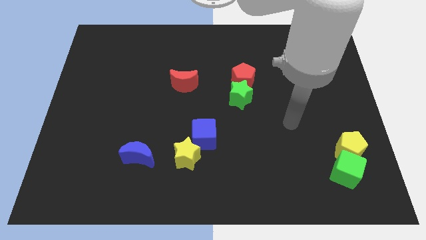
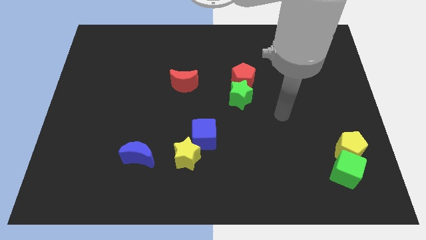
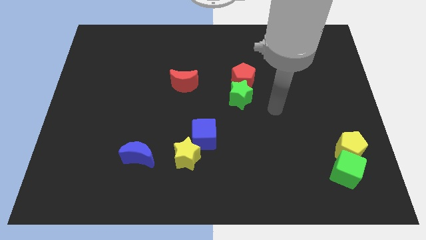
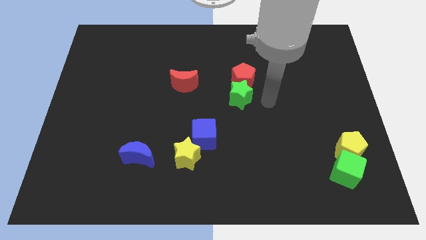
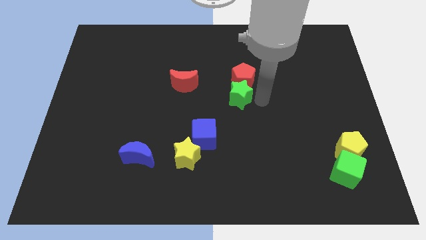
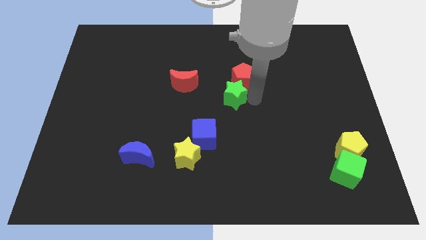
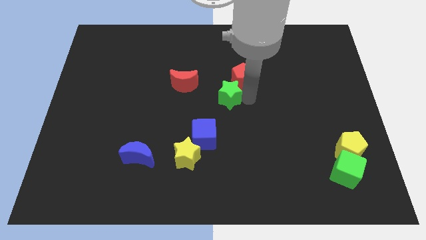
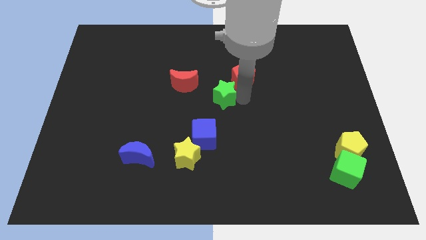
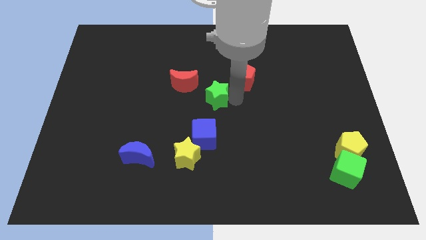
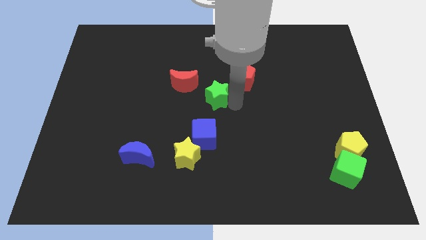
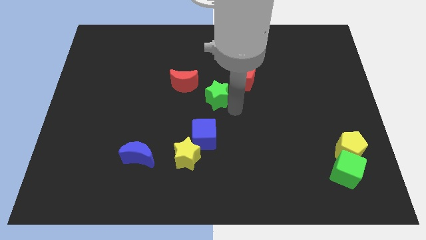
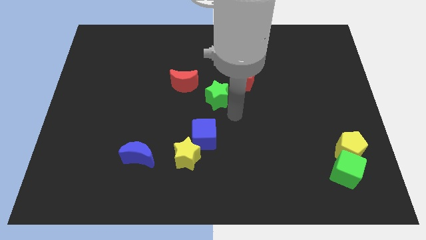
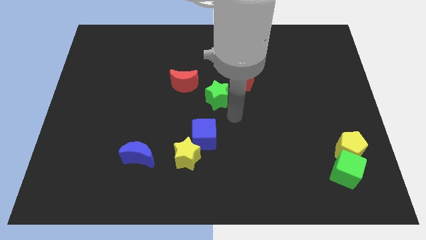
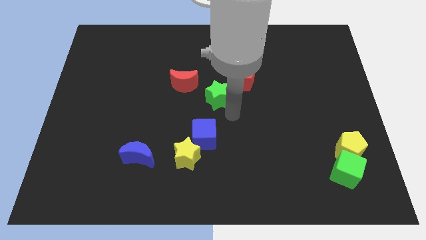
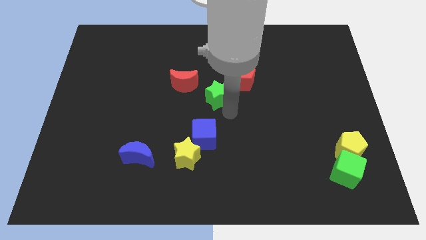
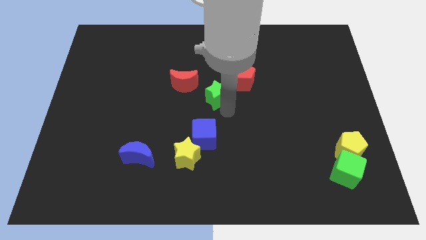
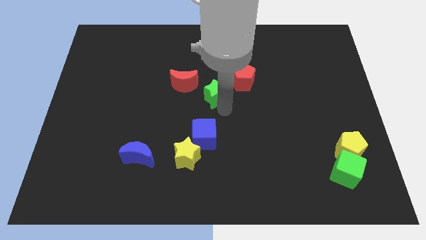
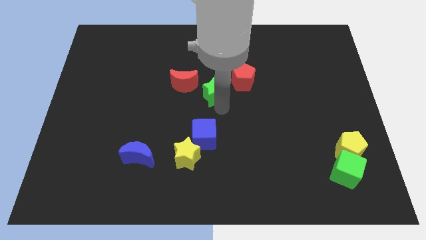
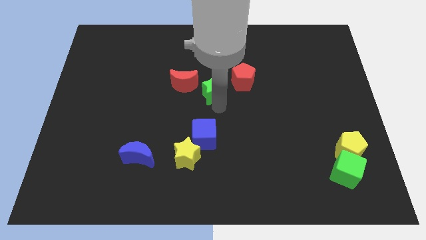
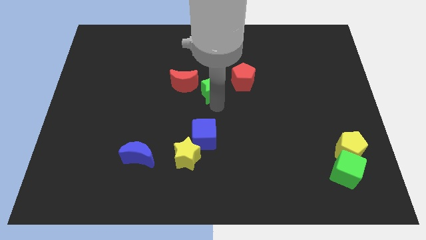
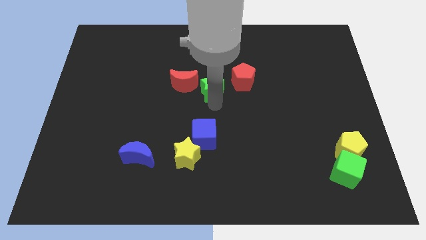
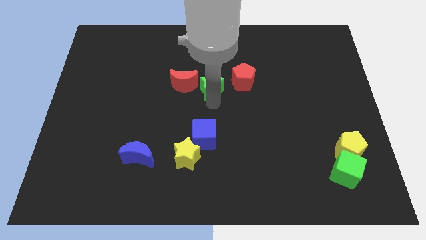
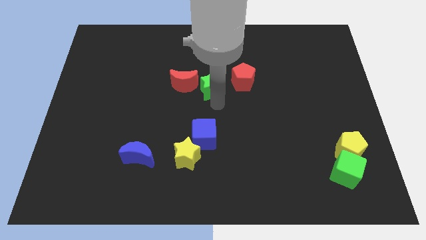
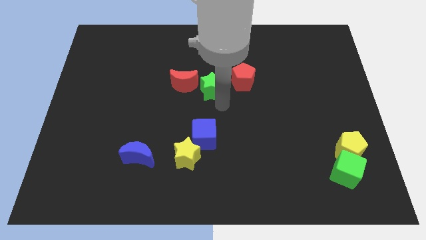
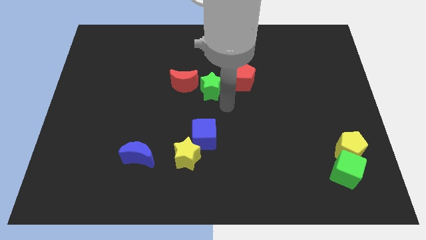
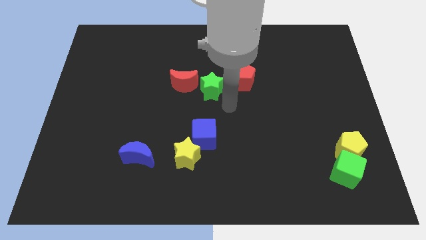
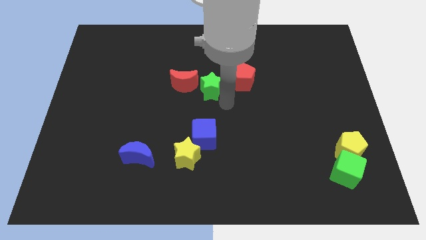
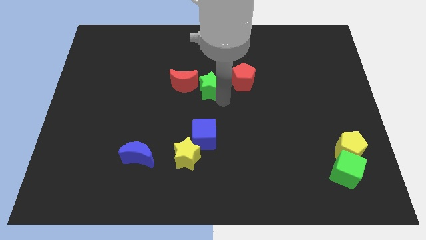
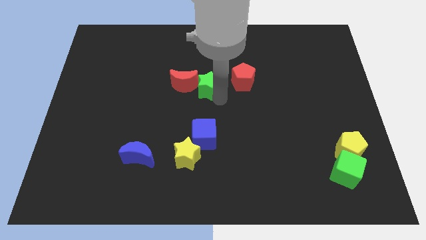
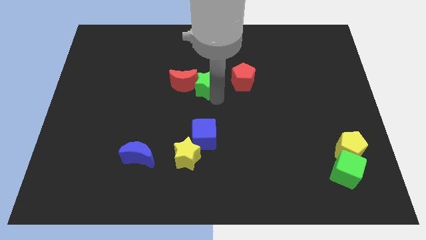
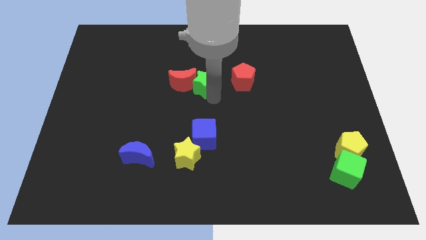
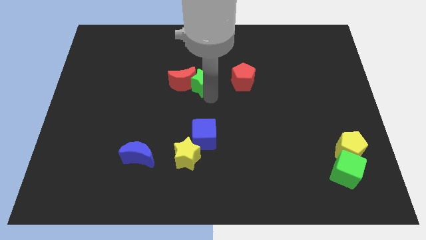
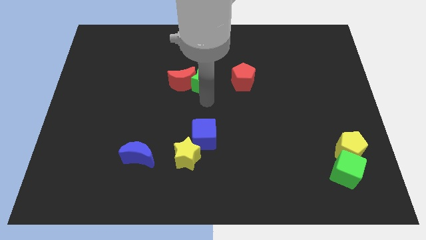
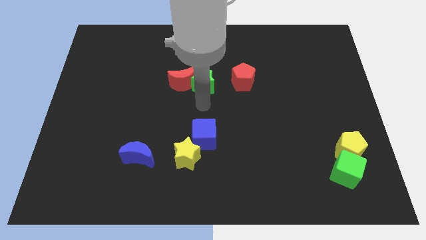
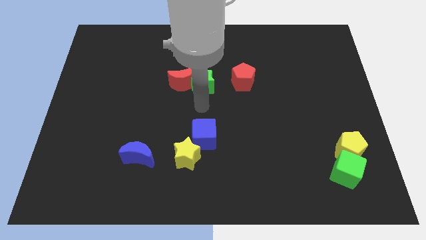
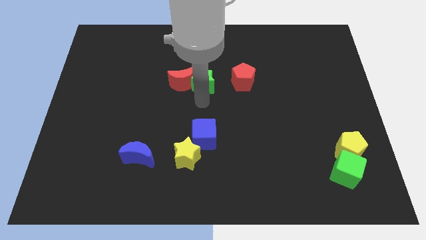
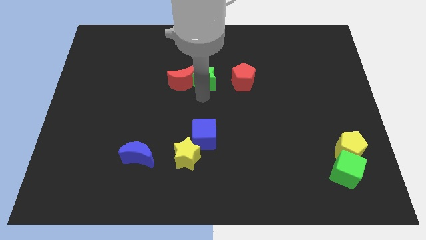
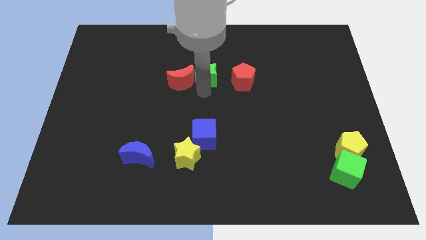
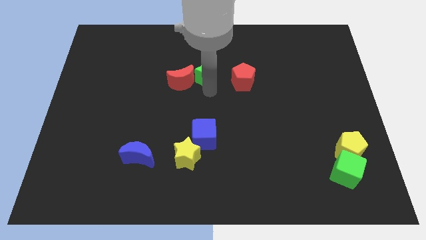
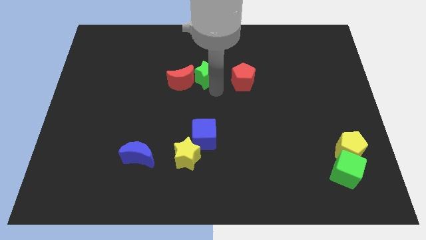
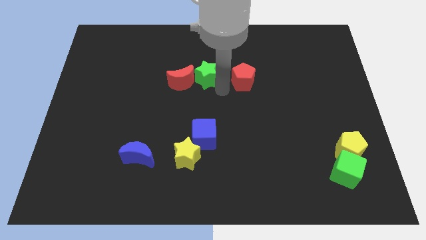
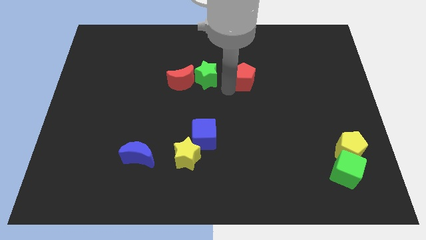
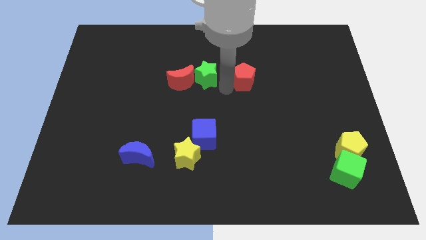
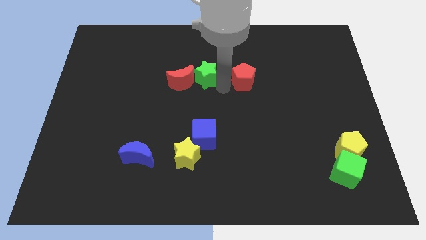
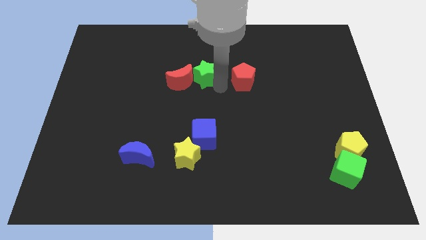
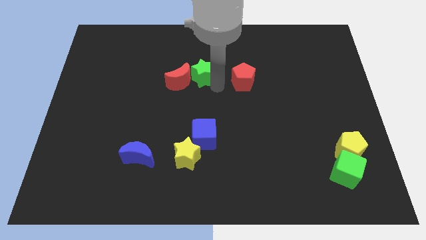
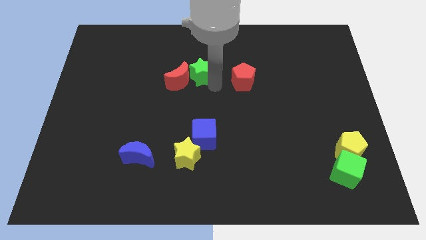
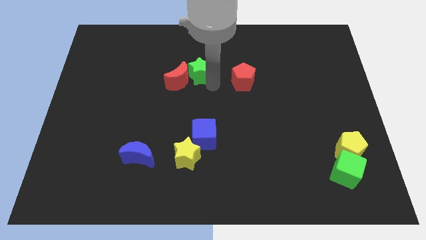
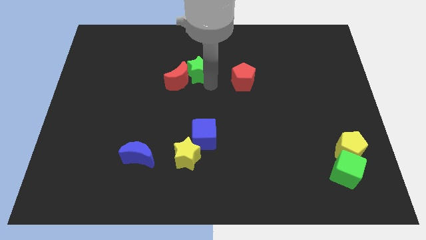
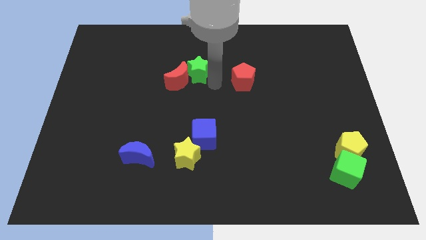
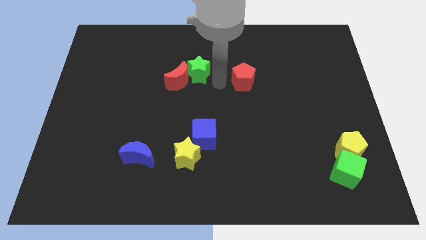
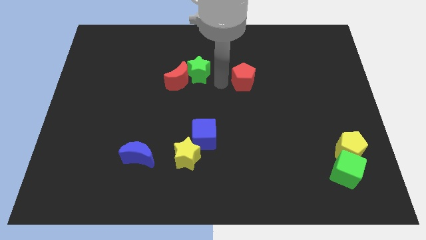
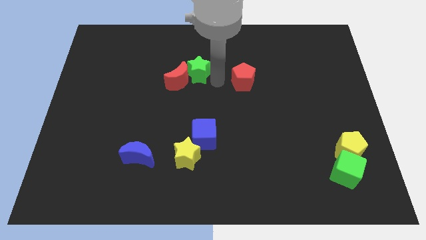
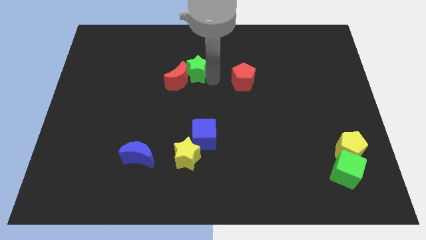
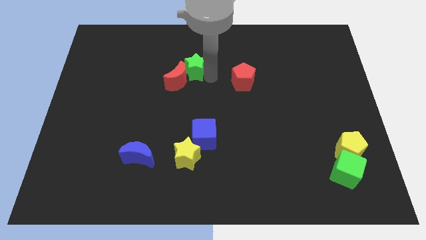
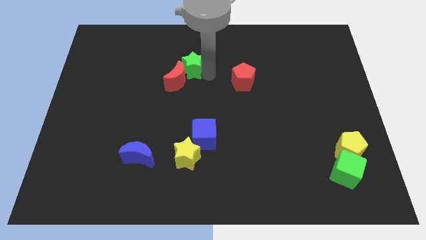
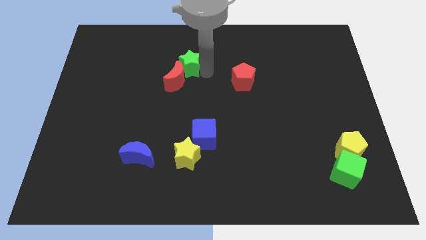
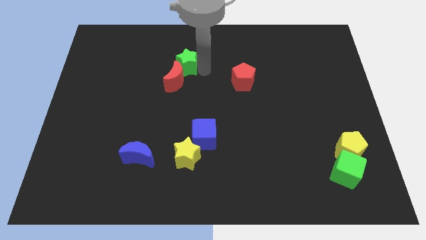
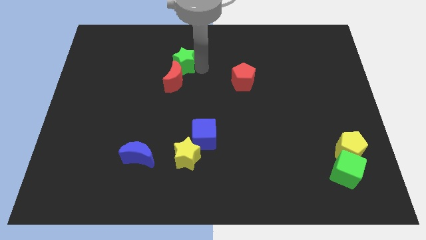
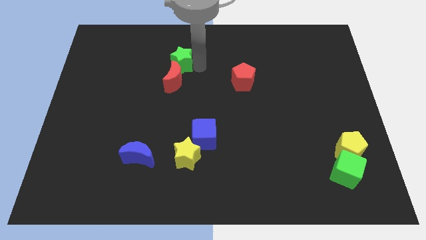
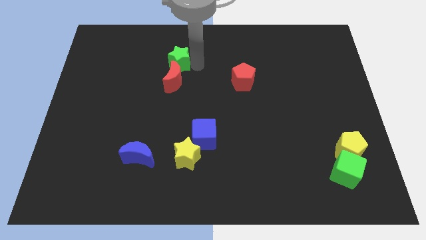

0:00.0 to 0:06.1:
slide the green star to the top left side of the red moon

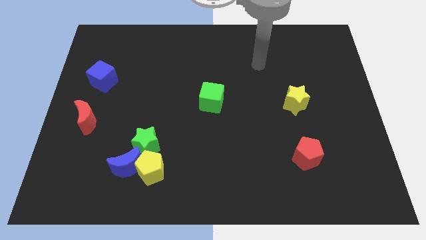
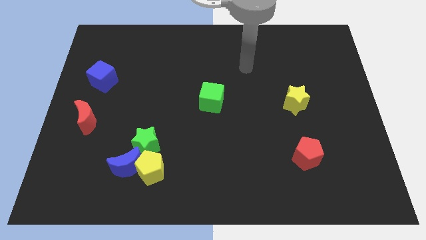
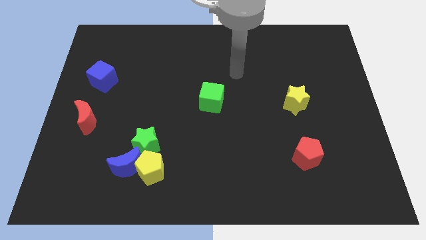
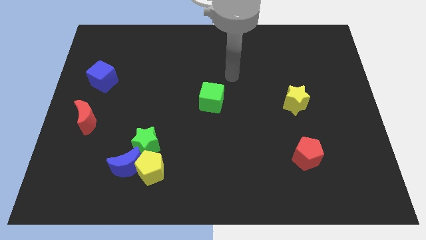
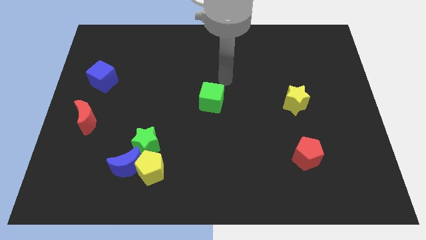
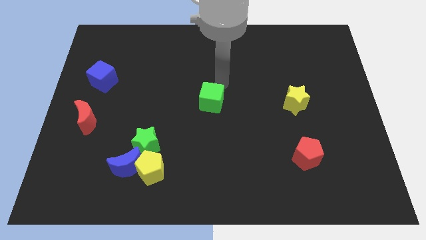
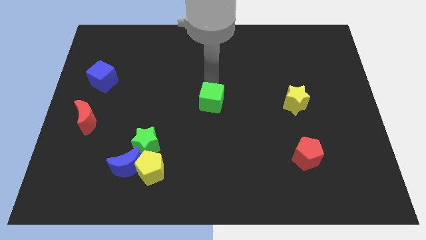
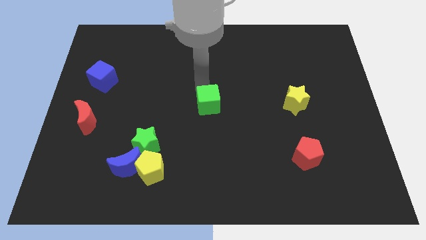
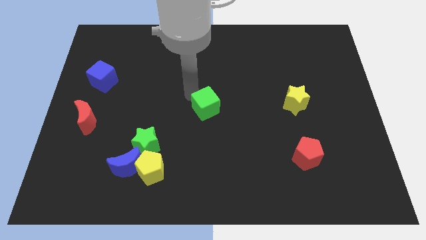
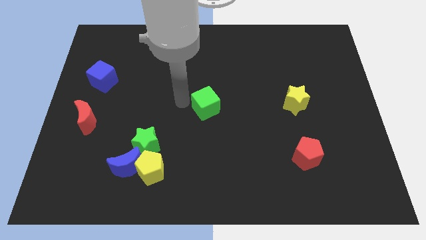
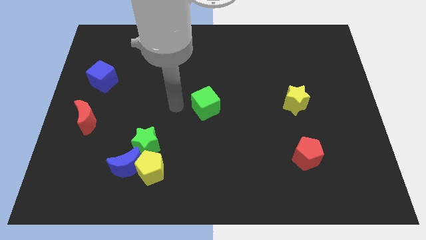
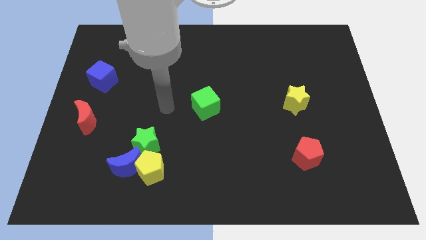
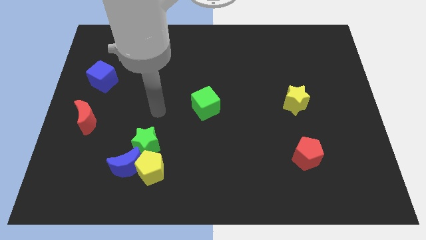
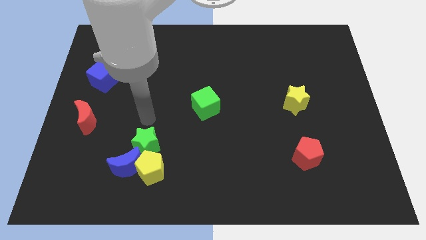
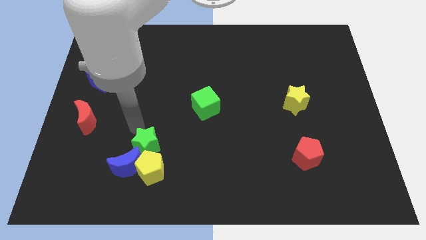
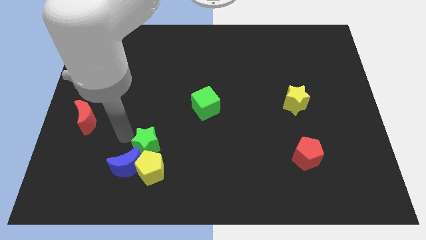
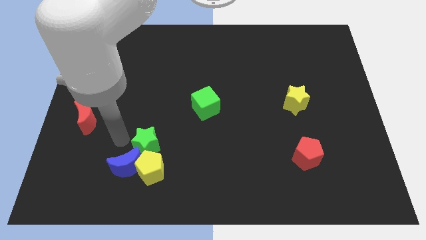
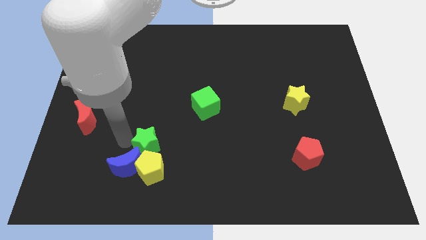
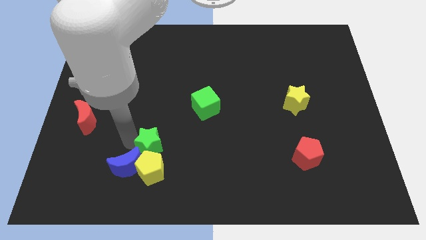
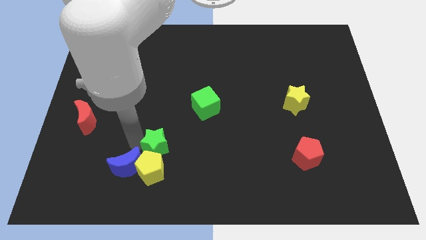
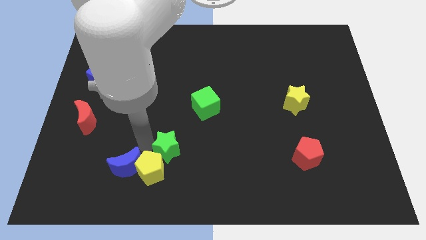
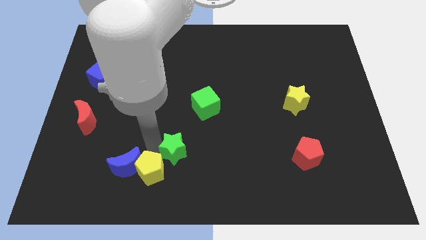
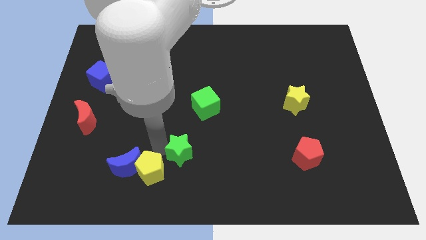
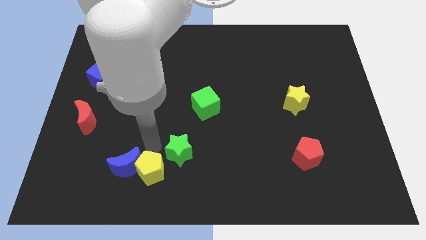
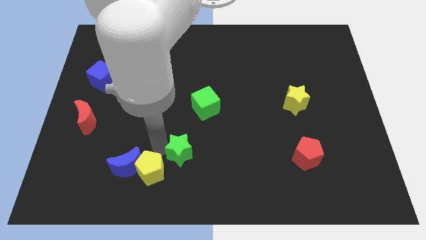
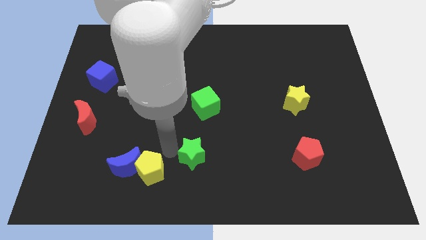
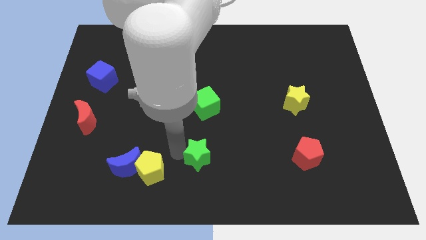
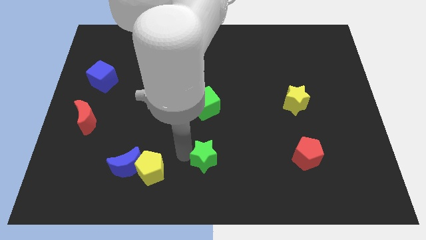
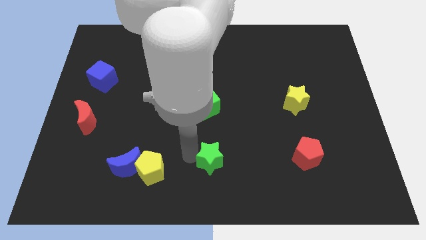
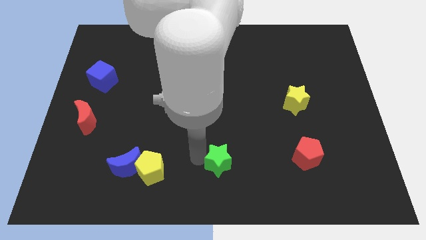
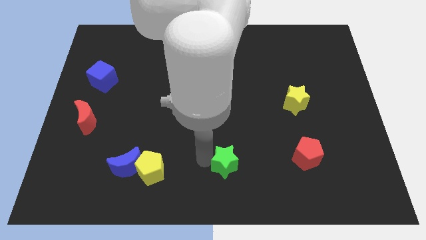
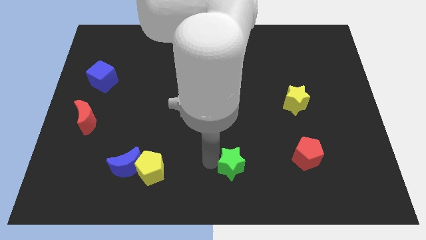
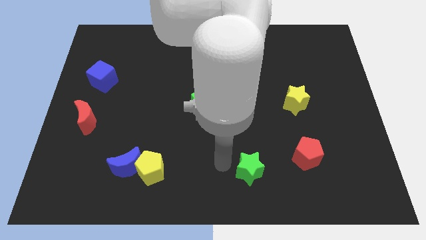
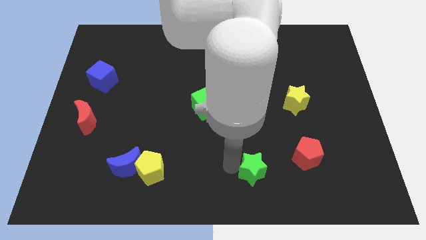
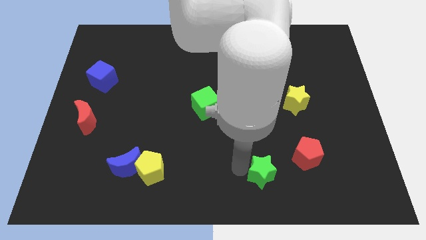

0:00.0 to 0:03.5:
push the green star to the bottom left side of the red pentagon
